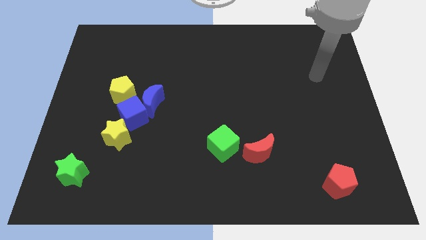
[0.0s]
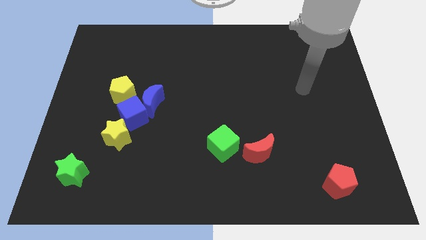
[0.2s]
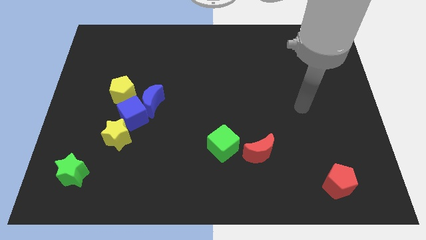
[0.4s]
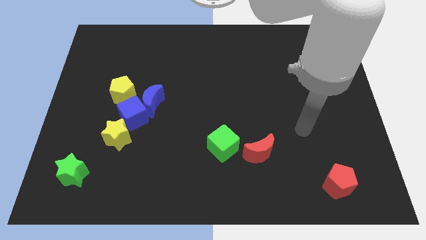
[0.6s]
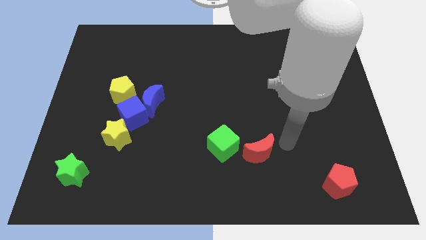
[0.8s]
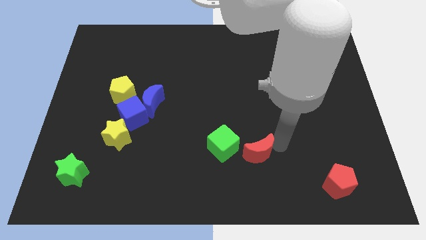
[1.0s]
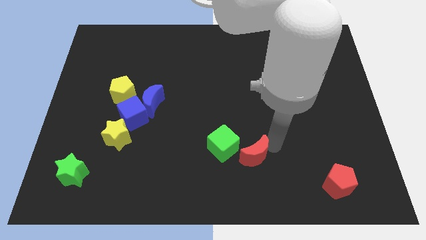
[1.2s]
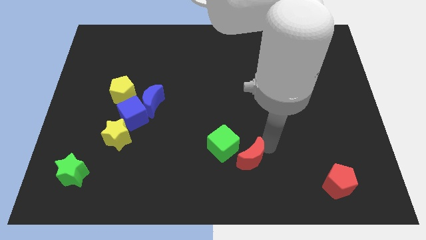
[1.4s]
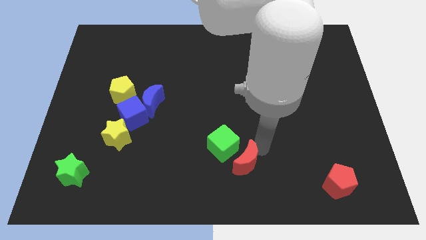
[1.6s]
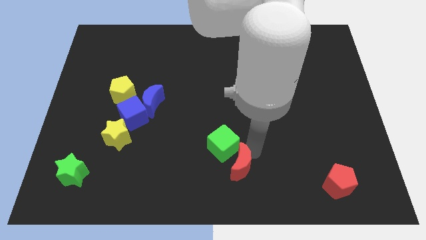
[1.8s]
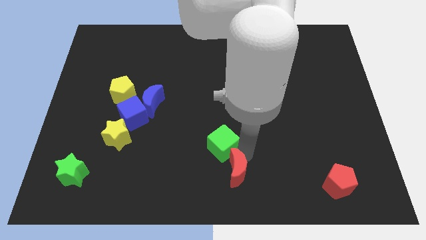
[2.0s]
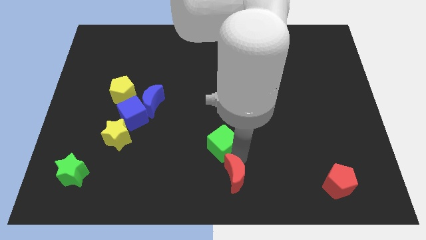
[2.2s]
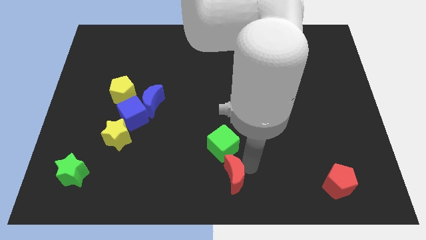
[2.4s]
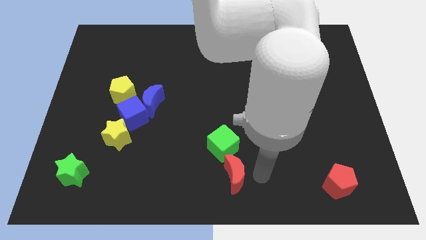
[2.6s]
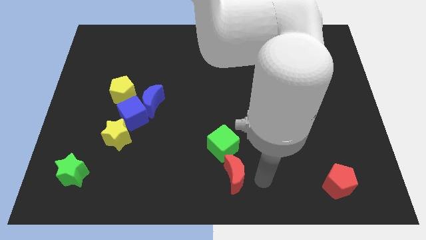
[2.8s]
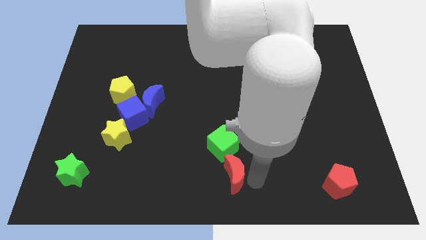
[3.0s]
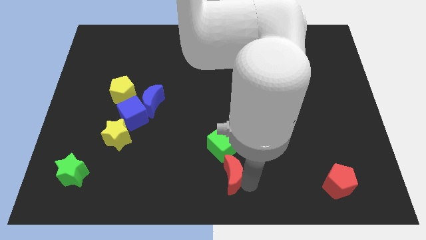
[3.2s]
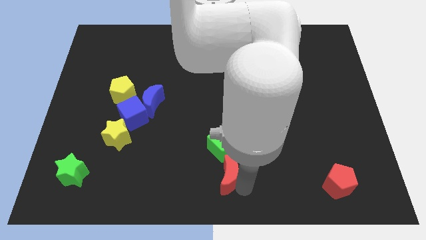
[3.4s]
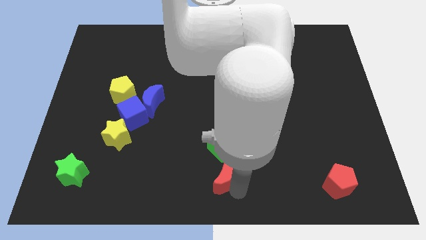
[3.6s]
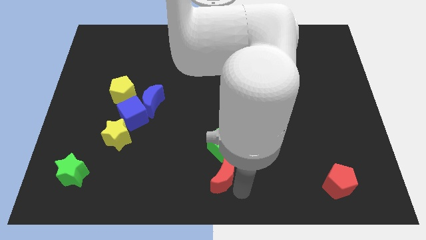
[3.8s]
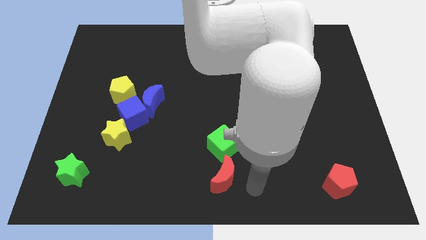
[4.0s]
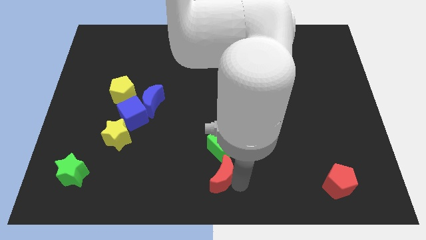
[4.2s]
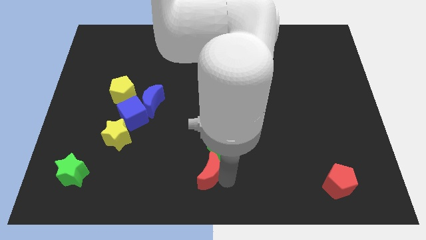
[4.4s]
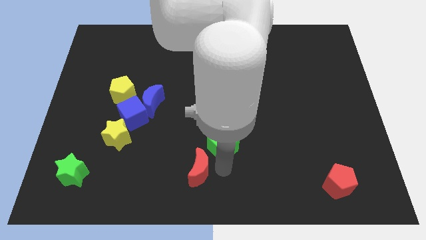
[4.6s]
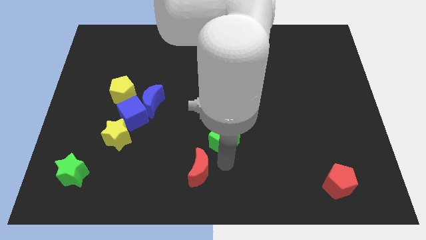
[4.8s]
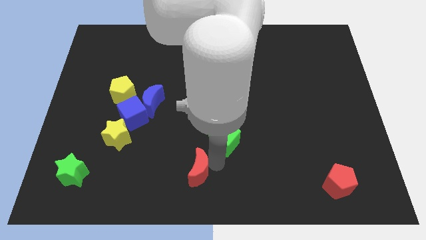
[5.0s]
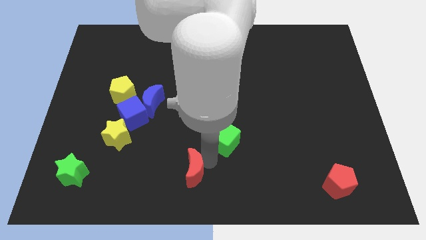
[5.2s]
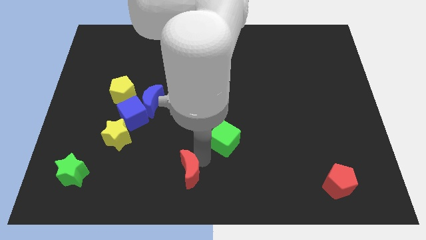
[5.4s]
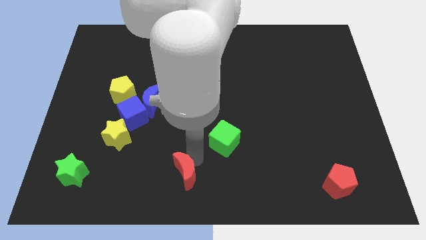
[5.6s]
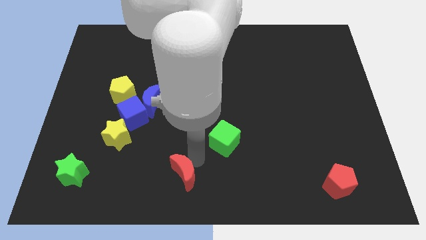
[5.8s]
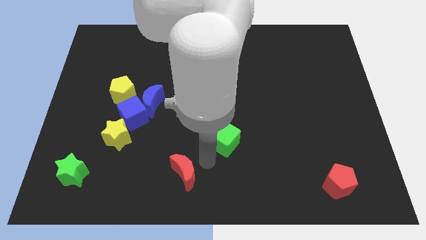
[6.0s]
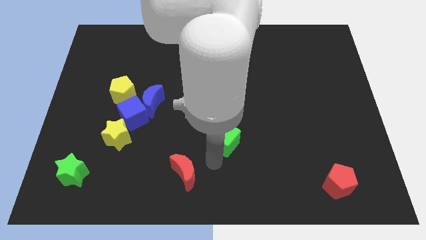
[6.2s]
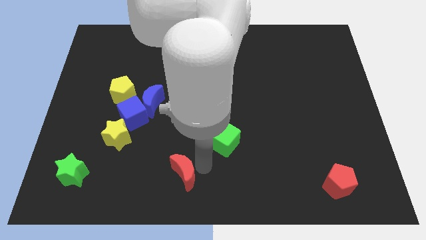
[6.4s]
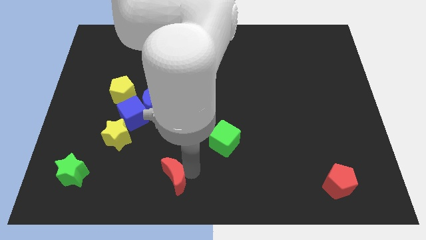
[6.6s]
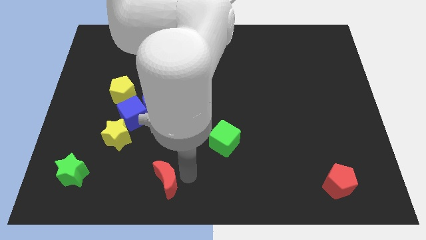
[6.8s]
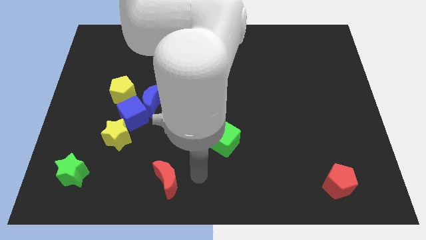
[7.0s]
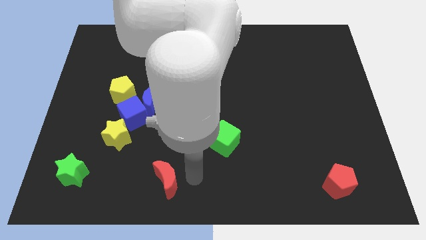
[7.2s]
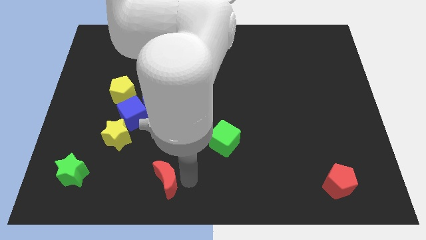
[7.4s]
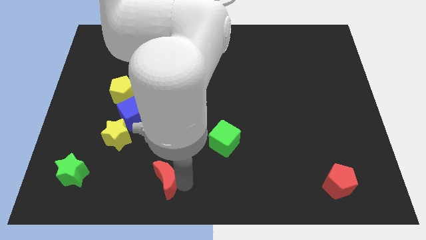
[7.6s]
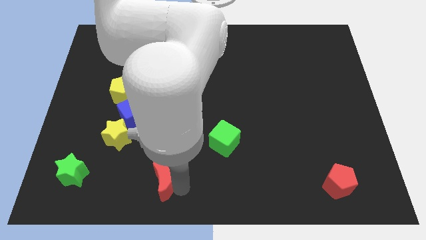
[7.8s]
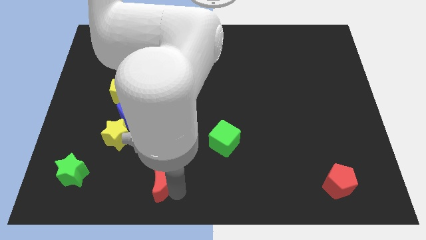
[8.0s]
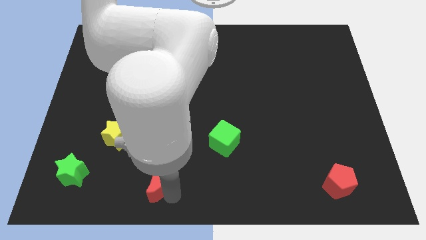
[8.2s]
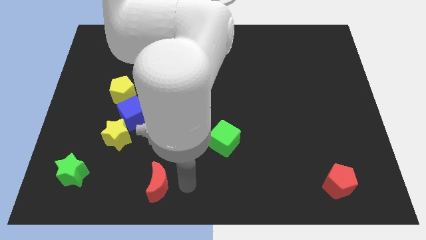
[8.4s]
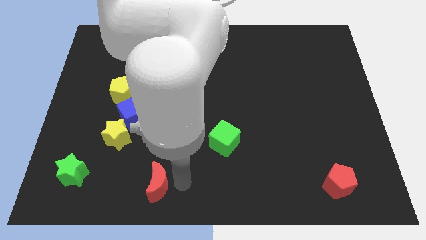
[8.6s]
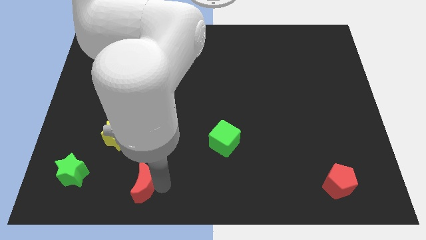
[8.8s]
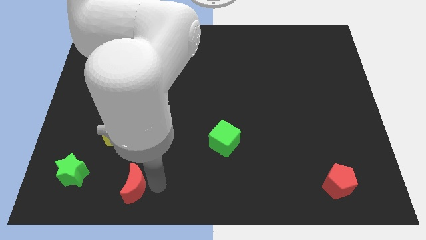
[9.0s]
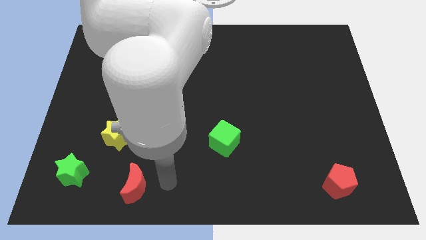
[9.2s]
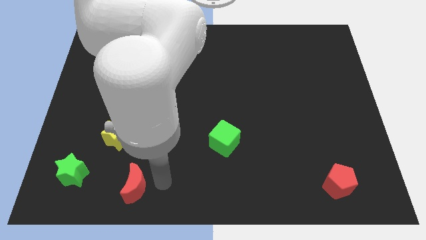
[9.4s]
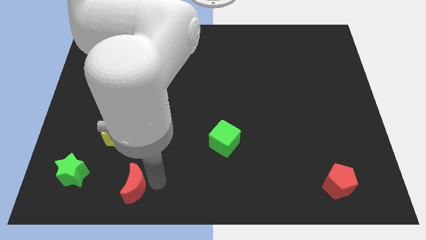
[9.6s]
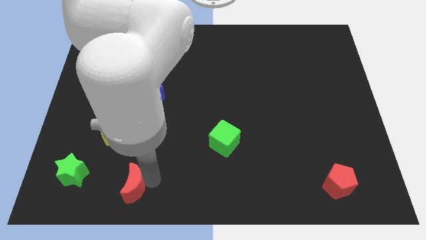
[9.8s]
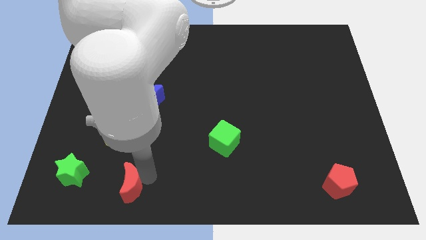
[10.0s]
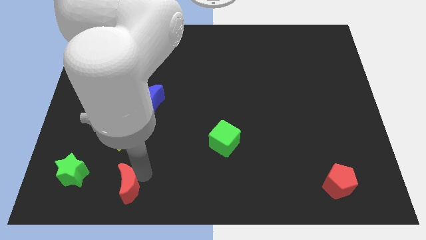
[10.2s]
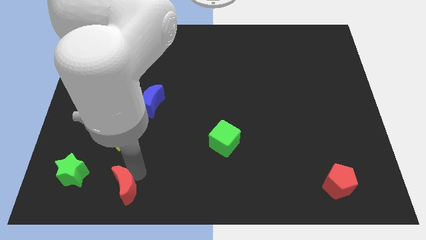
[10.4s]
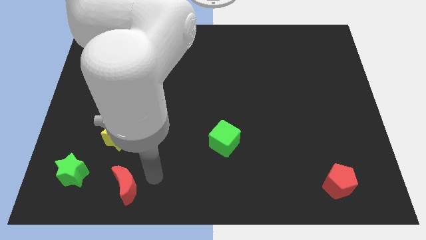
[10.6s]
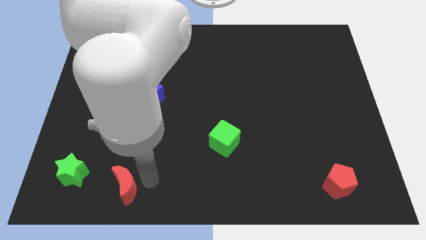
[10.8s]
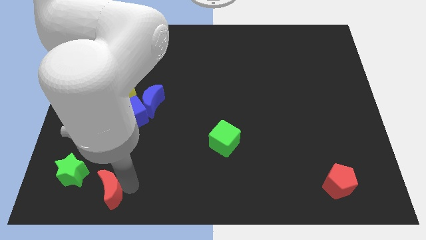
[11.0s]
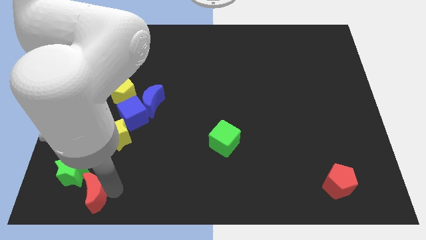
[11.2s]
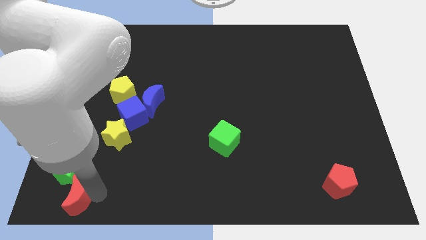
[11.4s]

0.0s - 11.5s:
push the red moon to the bottom left
